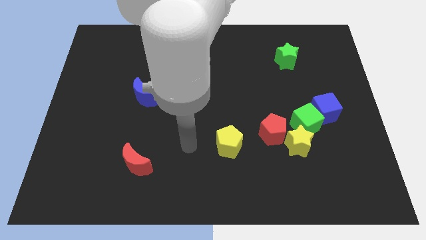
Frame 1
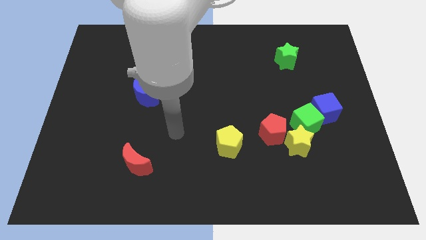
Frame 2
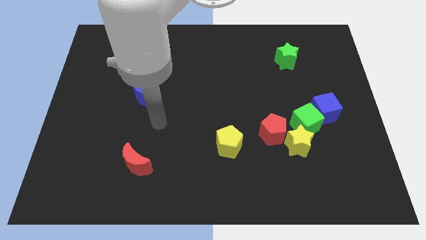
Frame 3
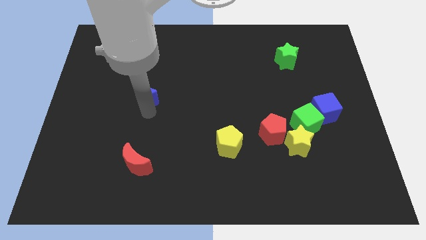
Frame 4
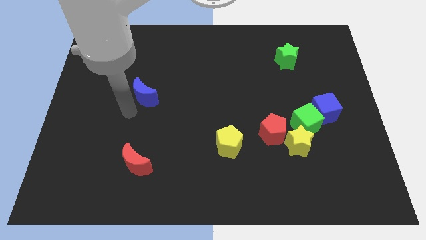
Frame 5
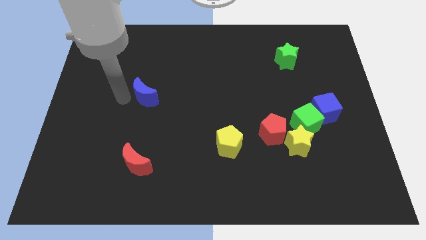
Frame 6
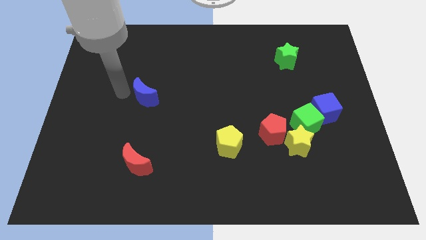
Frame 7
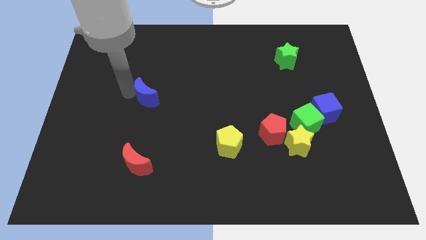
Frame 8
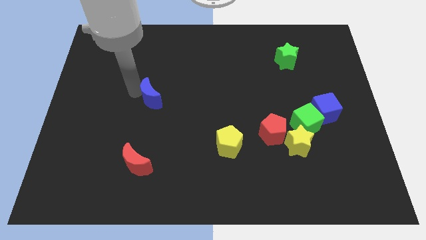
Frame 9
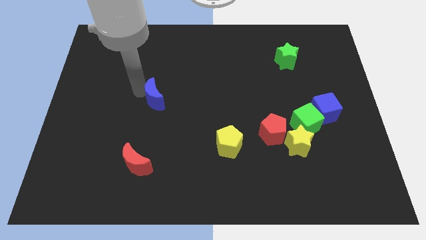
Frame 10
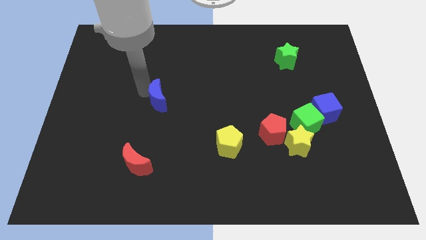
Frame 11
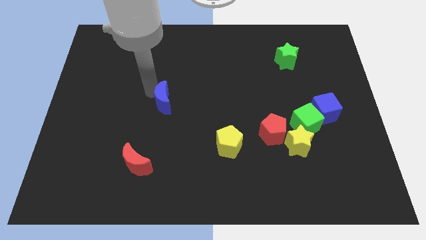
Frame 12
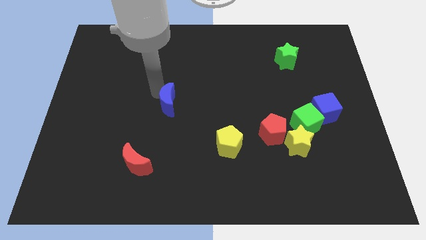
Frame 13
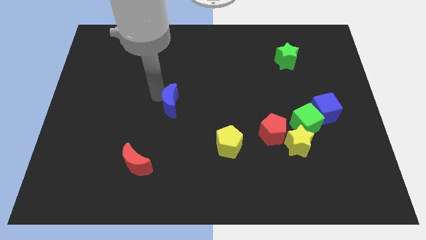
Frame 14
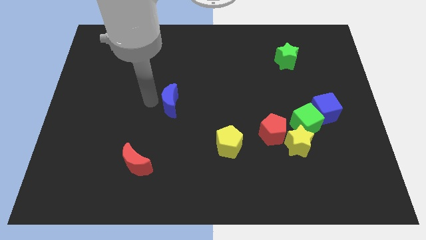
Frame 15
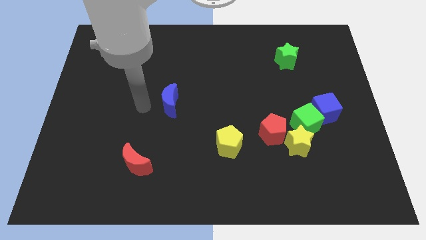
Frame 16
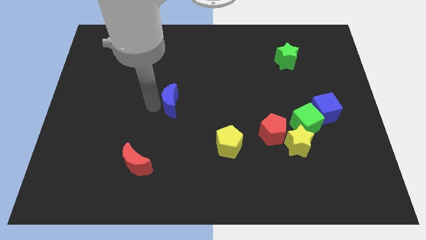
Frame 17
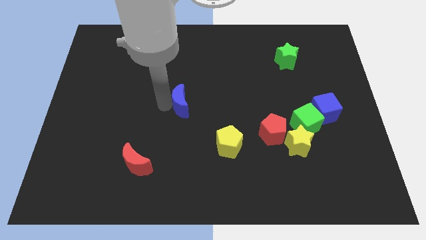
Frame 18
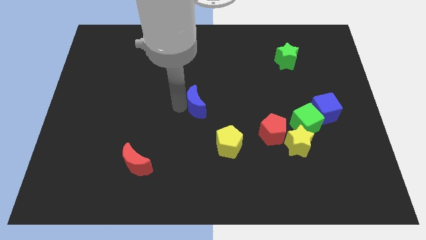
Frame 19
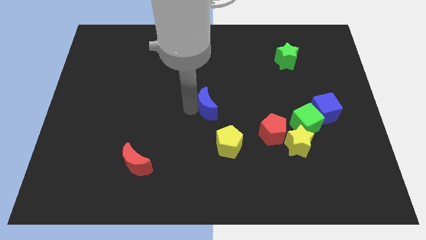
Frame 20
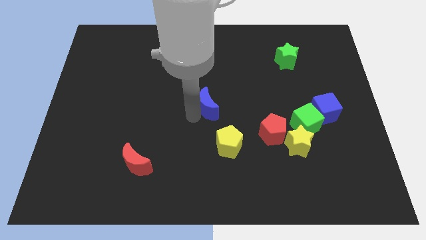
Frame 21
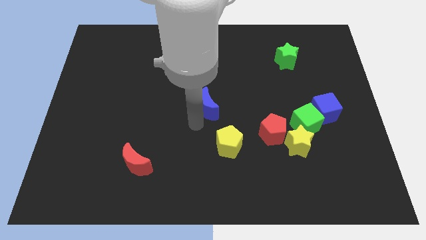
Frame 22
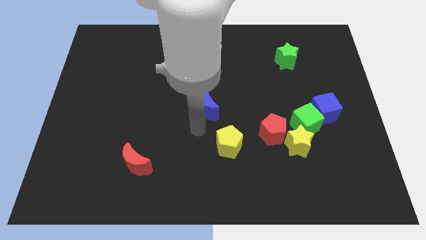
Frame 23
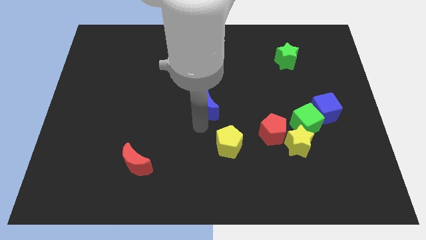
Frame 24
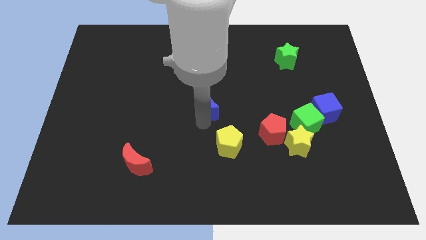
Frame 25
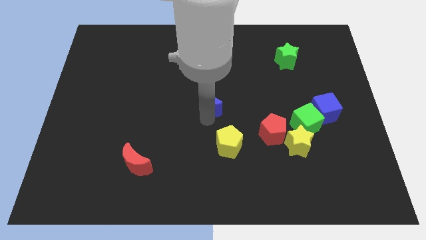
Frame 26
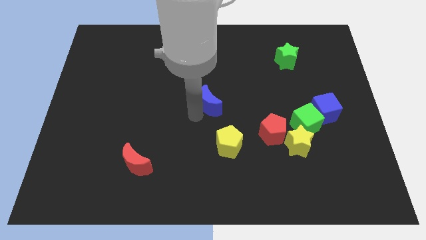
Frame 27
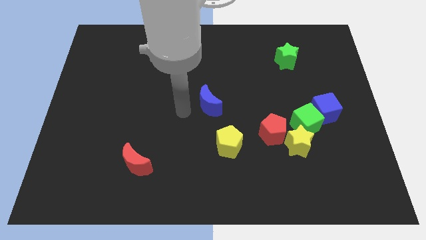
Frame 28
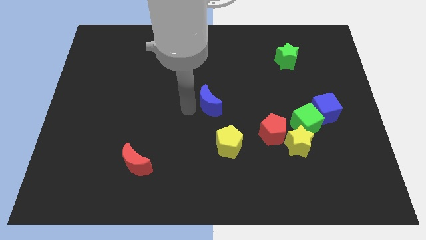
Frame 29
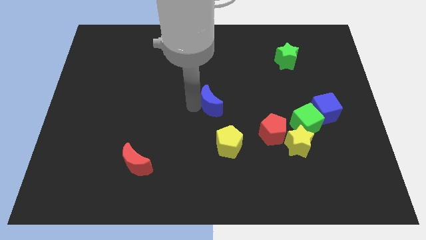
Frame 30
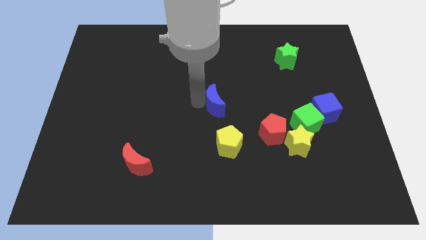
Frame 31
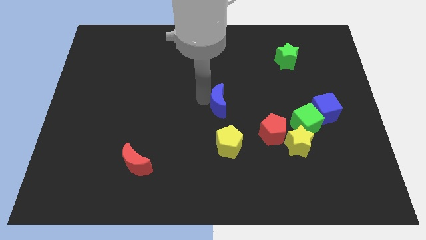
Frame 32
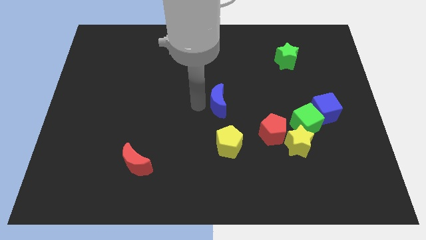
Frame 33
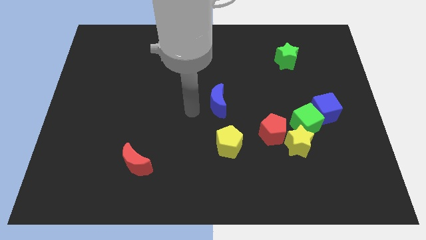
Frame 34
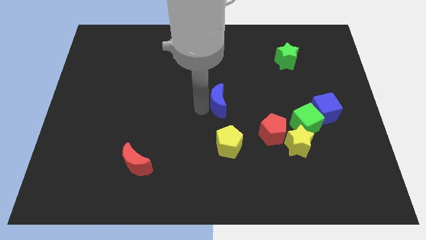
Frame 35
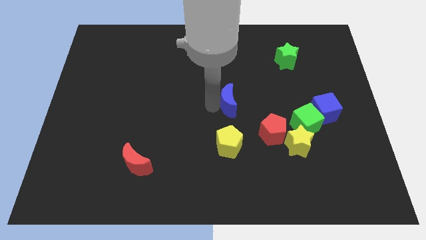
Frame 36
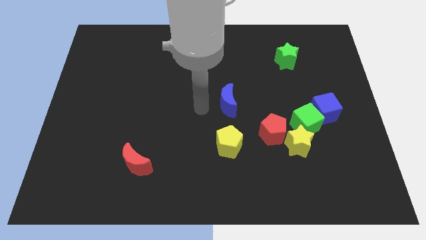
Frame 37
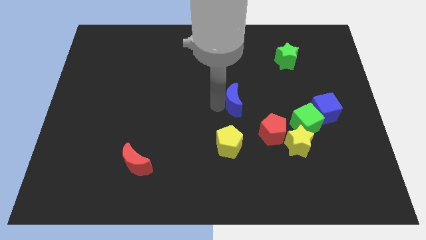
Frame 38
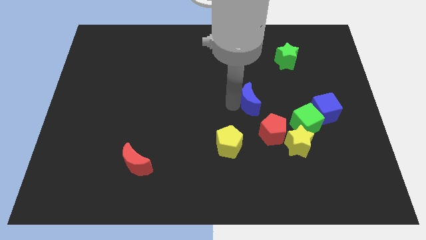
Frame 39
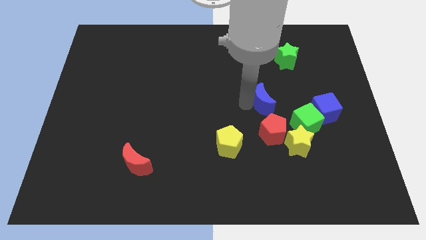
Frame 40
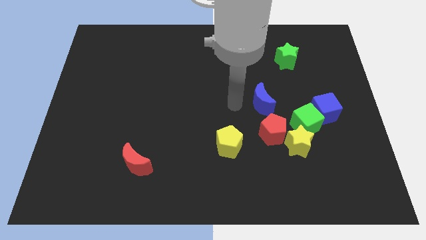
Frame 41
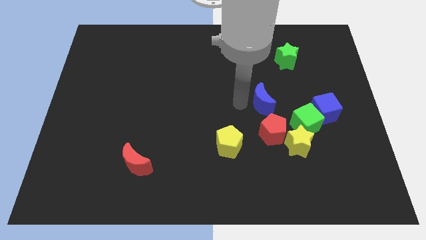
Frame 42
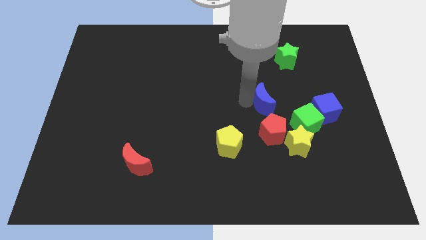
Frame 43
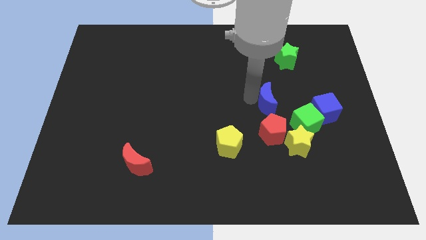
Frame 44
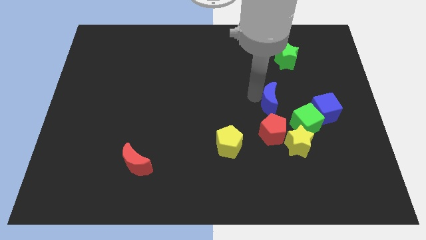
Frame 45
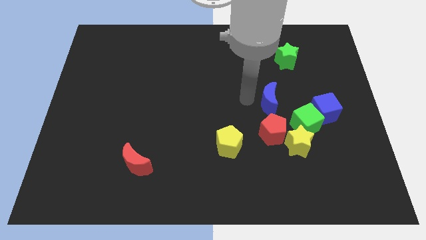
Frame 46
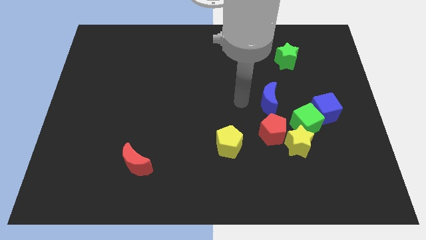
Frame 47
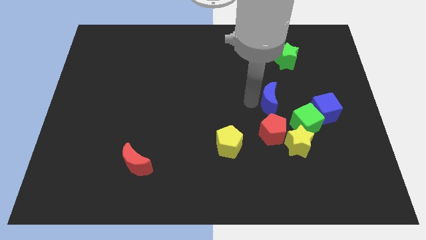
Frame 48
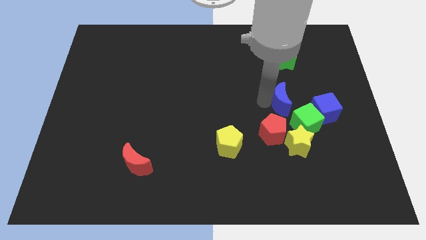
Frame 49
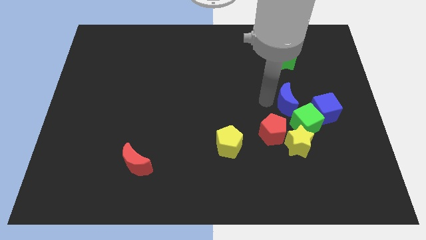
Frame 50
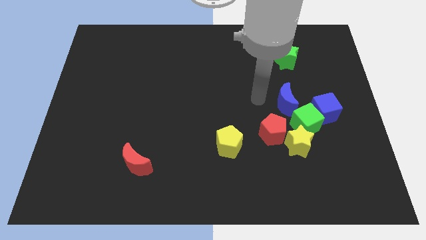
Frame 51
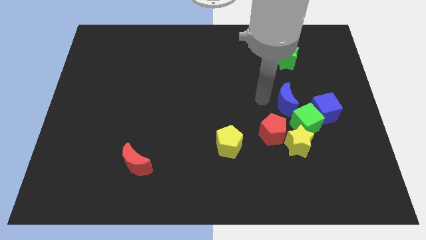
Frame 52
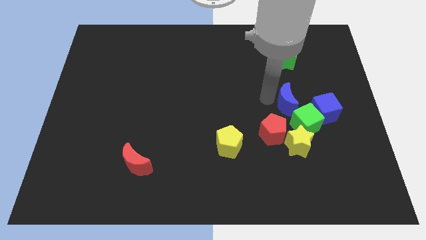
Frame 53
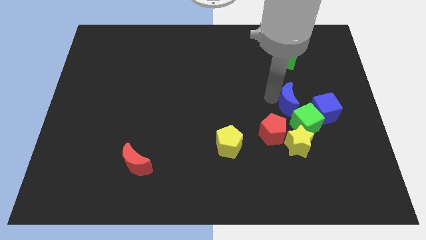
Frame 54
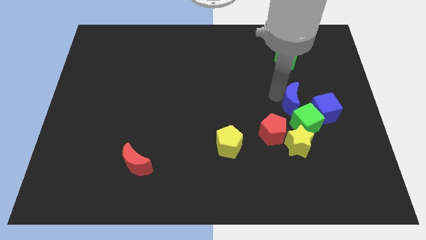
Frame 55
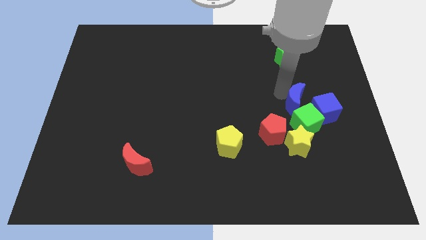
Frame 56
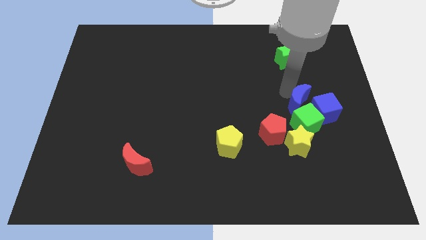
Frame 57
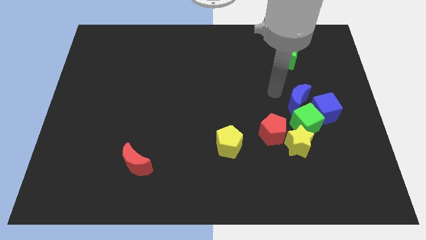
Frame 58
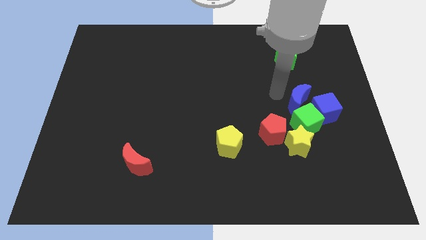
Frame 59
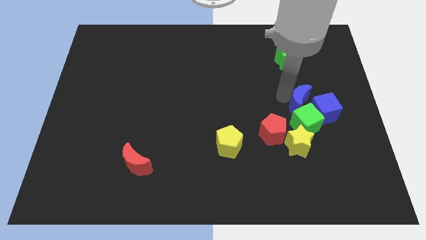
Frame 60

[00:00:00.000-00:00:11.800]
slide the blue moon close to the blue cube
